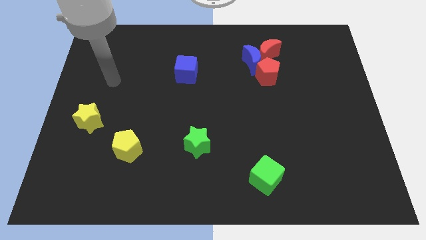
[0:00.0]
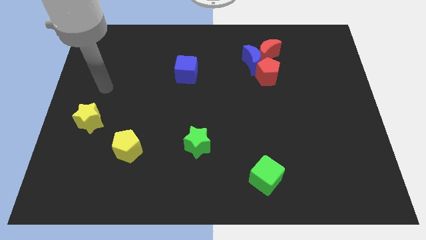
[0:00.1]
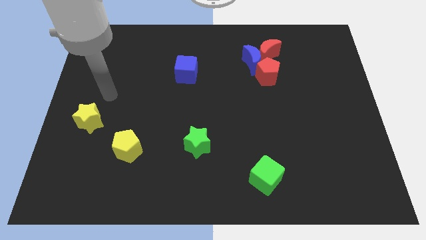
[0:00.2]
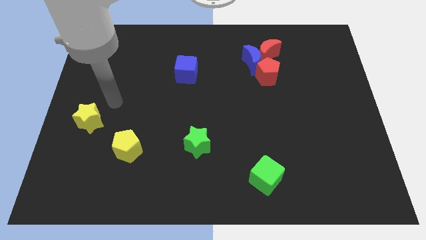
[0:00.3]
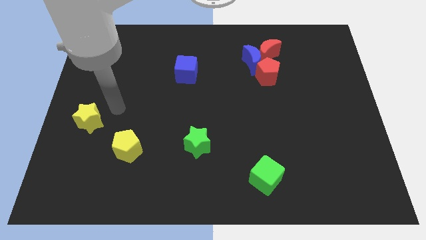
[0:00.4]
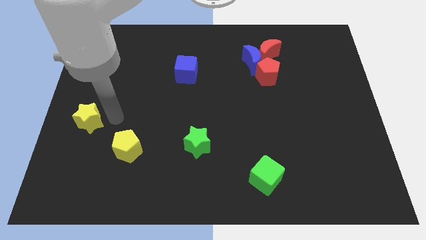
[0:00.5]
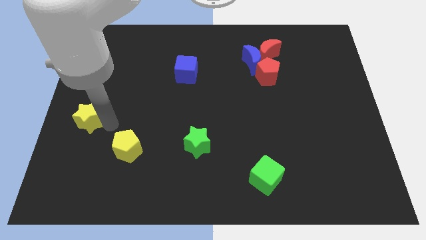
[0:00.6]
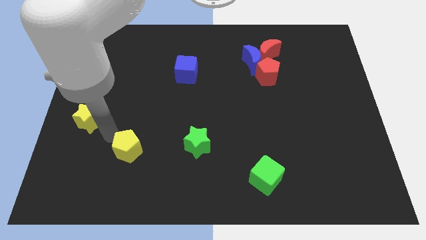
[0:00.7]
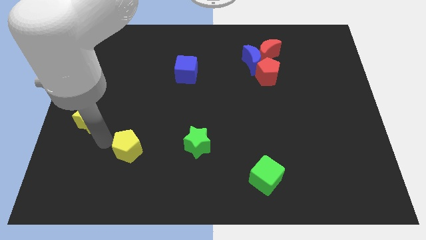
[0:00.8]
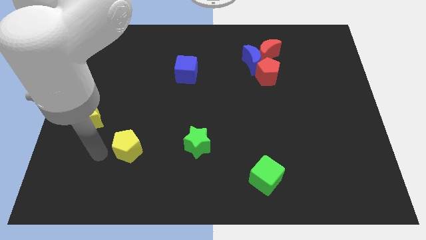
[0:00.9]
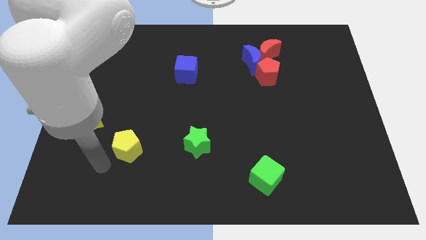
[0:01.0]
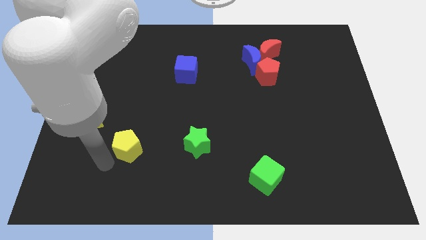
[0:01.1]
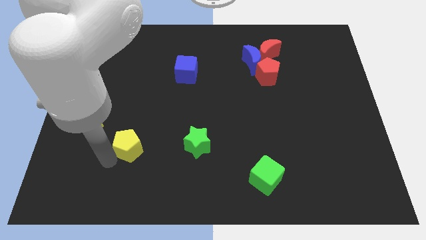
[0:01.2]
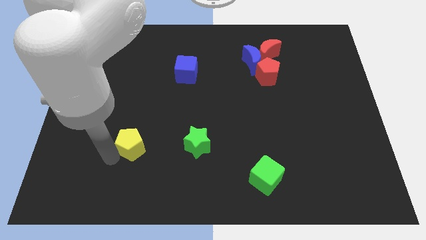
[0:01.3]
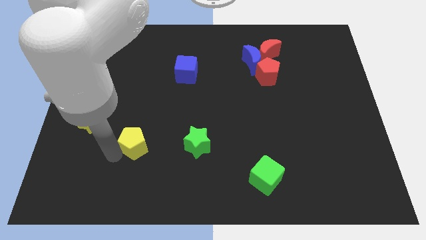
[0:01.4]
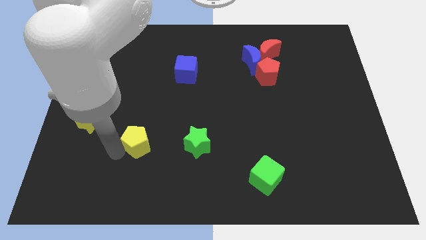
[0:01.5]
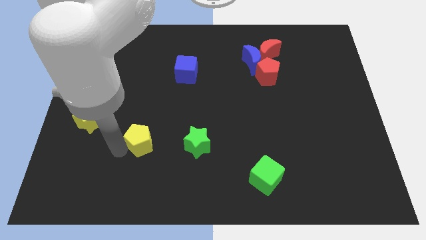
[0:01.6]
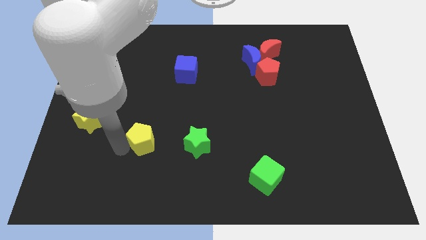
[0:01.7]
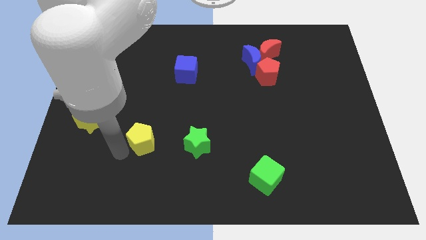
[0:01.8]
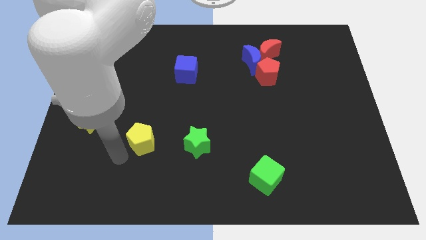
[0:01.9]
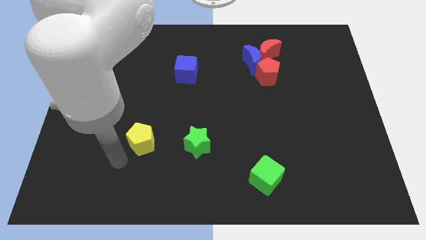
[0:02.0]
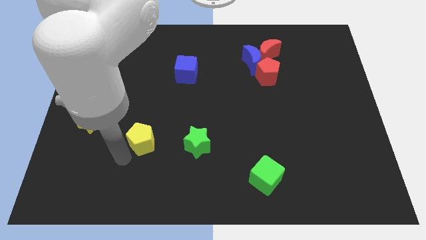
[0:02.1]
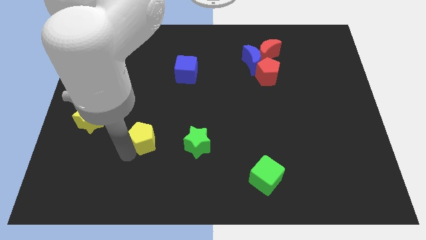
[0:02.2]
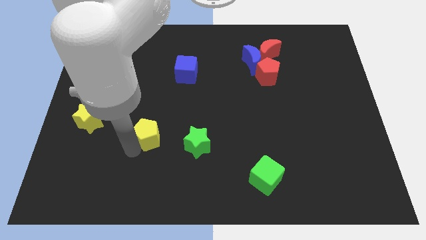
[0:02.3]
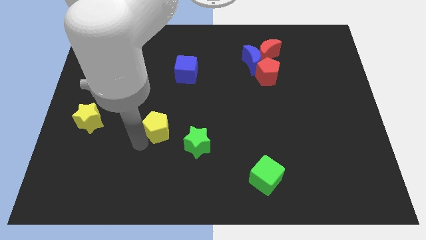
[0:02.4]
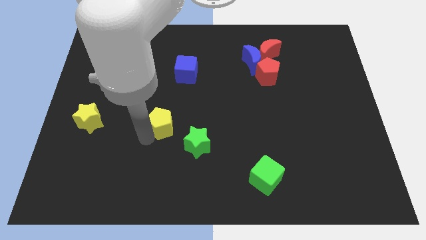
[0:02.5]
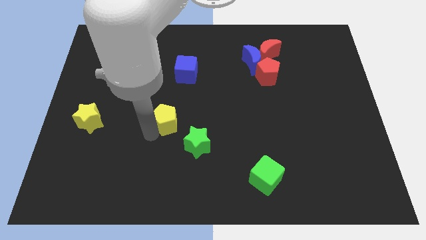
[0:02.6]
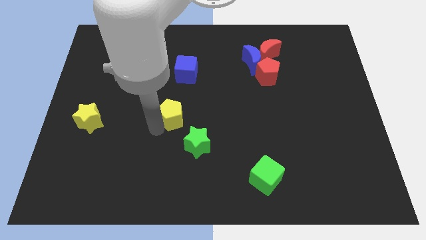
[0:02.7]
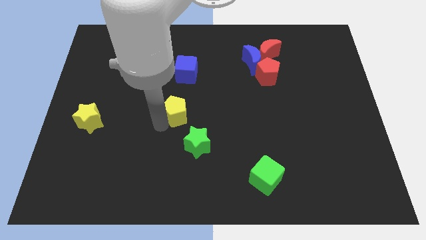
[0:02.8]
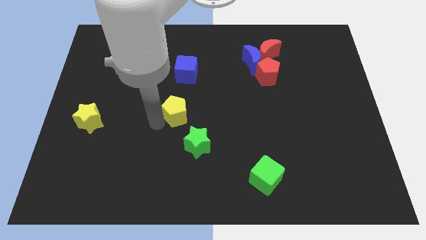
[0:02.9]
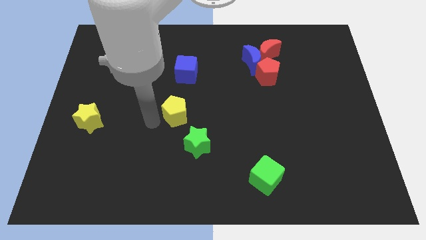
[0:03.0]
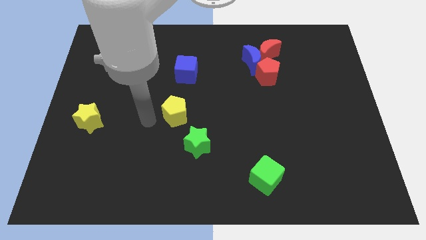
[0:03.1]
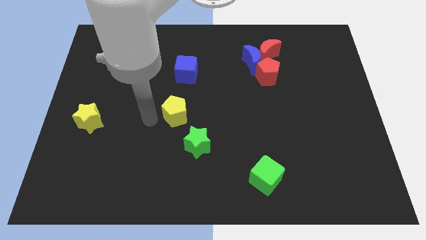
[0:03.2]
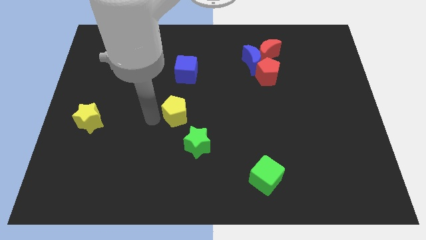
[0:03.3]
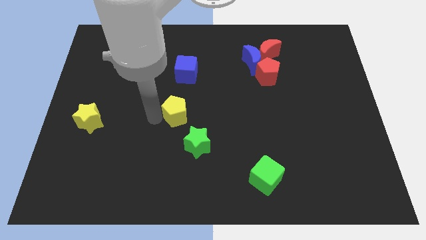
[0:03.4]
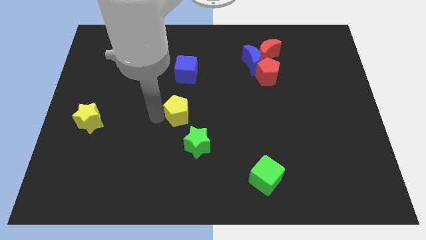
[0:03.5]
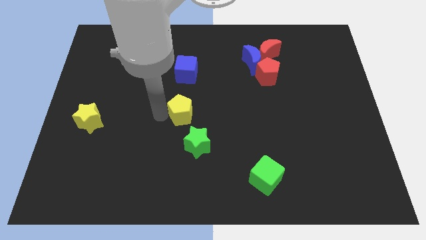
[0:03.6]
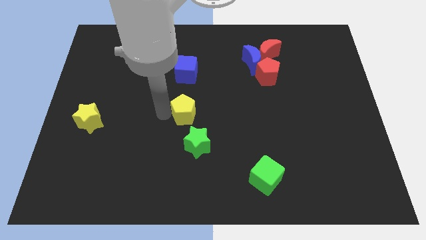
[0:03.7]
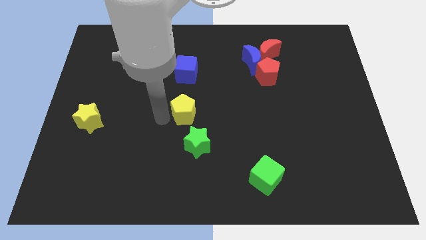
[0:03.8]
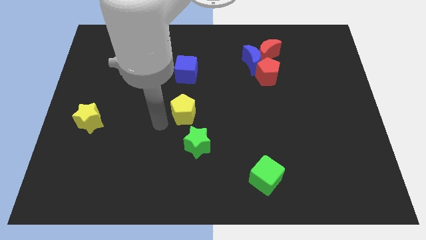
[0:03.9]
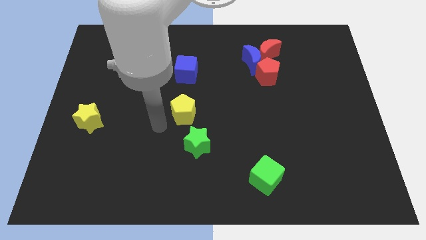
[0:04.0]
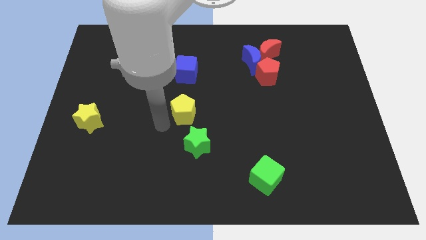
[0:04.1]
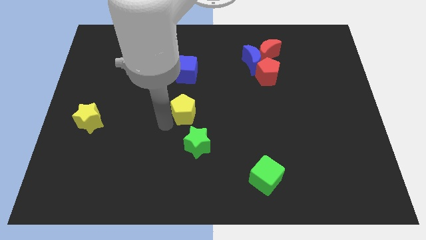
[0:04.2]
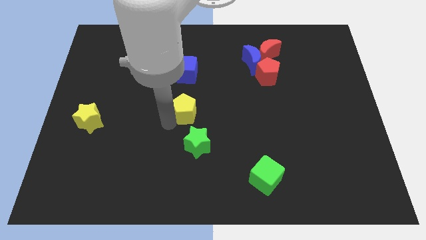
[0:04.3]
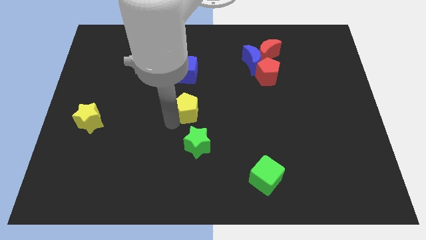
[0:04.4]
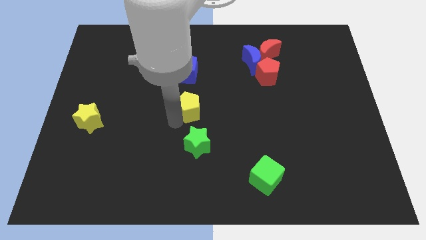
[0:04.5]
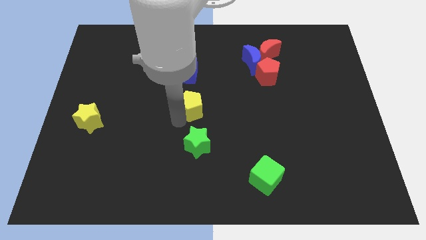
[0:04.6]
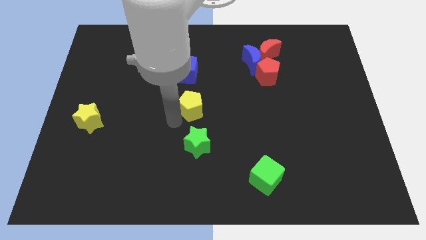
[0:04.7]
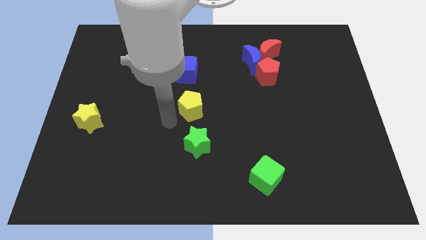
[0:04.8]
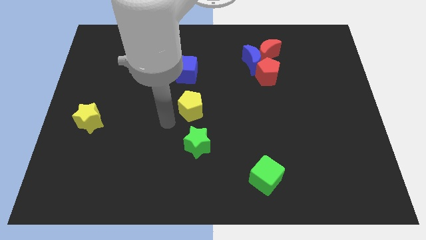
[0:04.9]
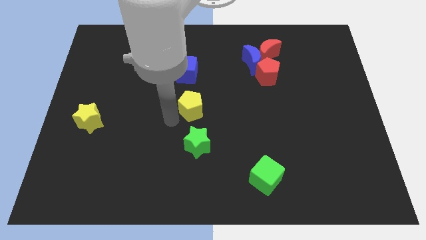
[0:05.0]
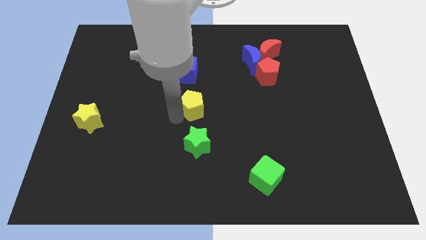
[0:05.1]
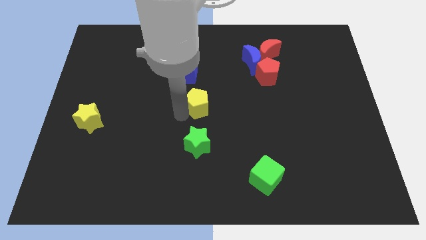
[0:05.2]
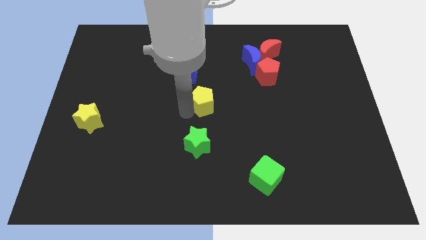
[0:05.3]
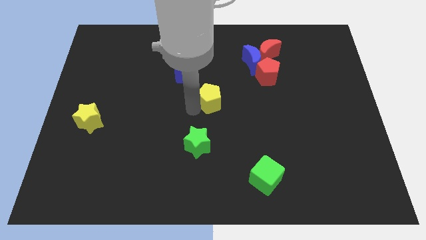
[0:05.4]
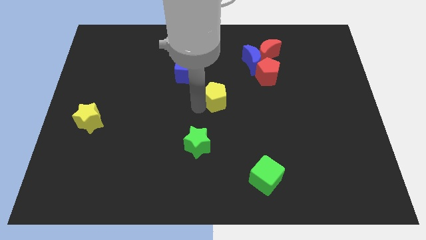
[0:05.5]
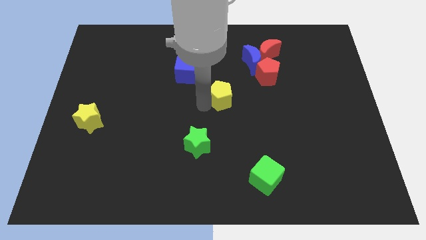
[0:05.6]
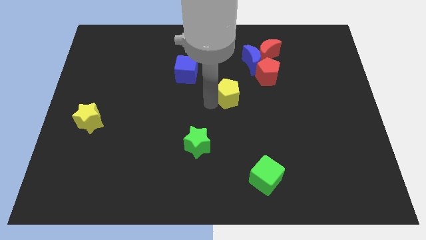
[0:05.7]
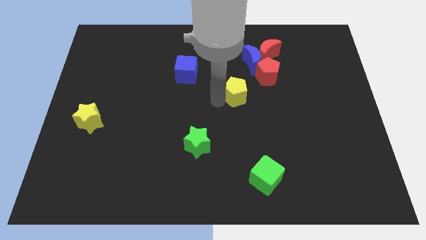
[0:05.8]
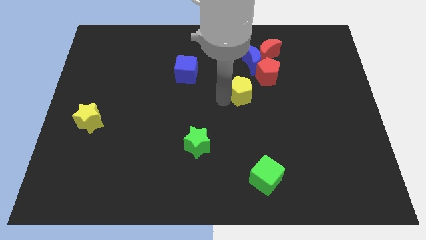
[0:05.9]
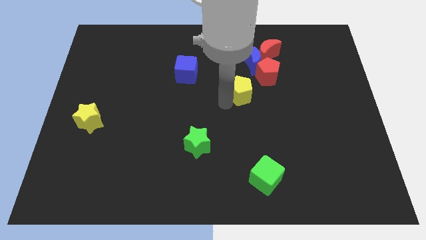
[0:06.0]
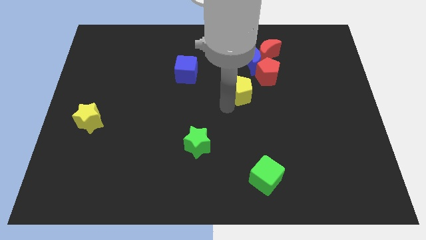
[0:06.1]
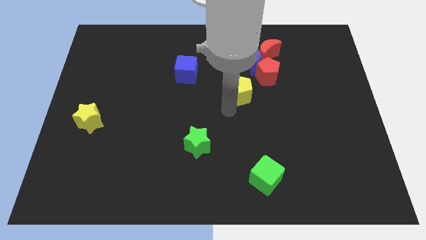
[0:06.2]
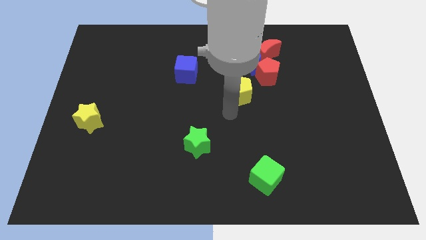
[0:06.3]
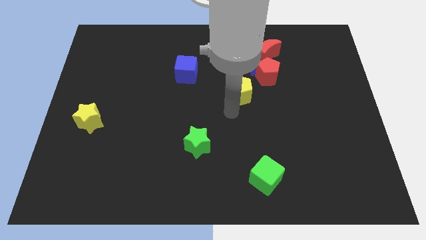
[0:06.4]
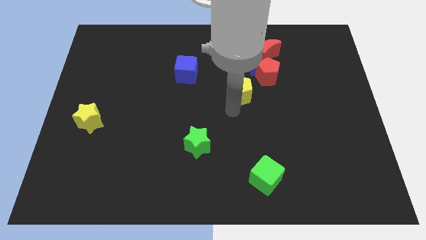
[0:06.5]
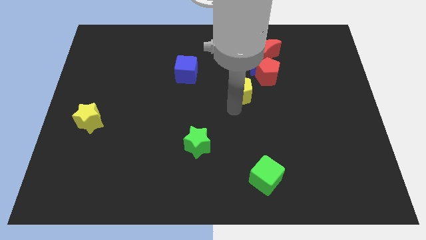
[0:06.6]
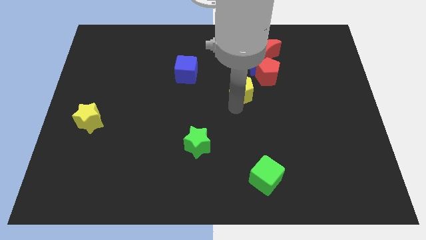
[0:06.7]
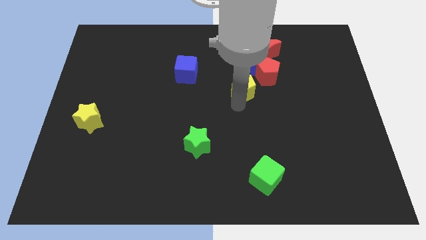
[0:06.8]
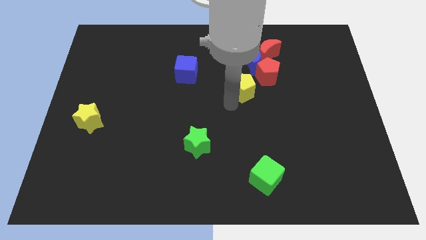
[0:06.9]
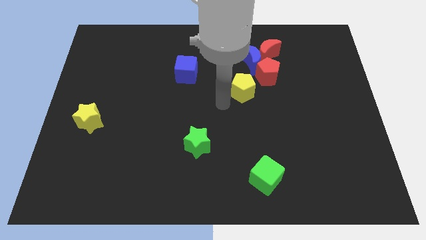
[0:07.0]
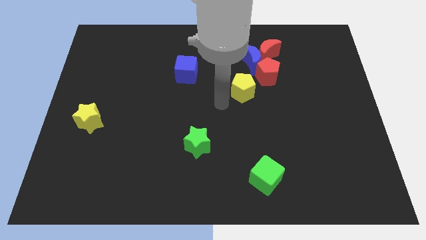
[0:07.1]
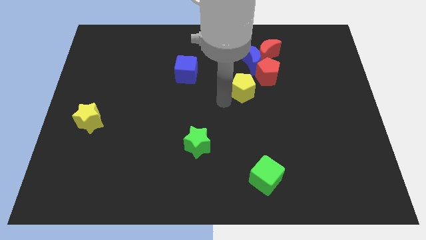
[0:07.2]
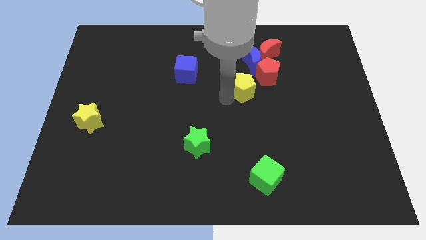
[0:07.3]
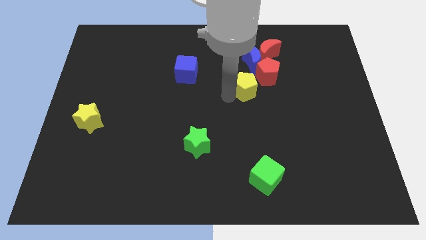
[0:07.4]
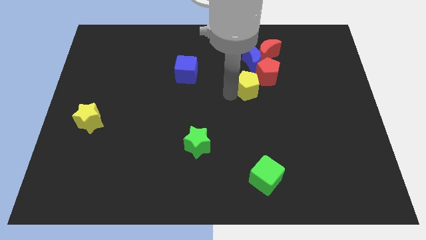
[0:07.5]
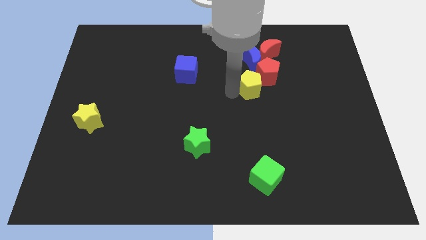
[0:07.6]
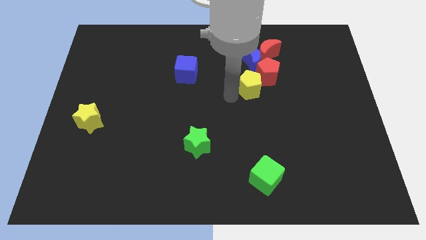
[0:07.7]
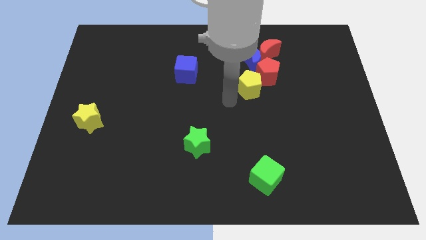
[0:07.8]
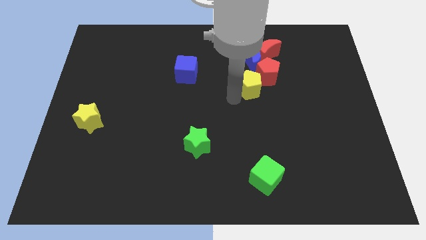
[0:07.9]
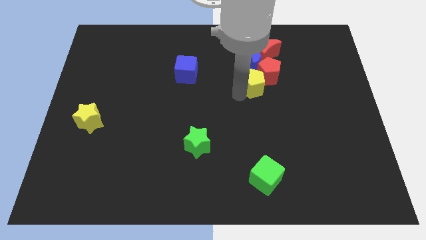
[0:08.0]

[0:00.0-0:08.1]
move the yellow pentagon to the red pentagon
